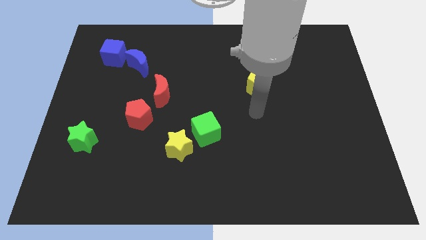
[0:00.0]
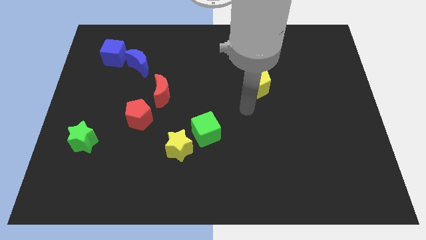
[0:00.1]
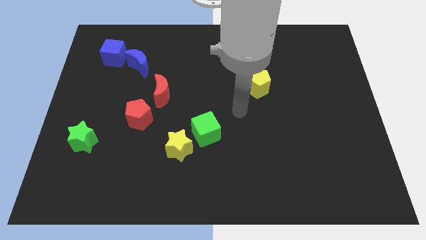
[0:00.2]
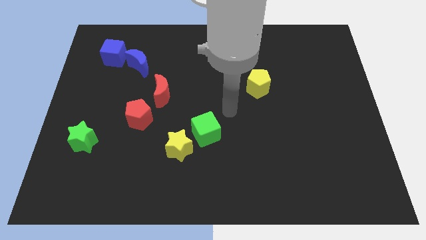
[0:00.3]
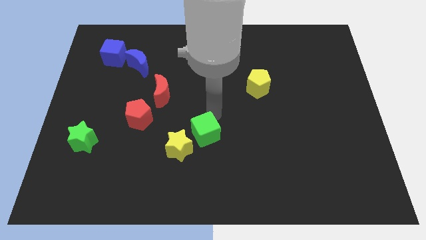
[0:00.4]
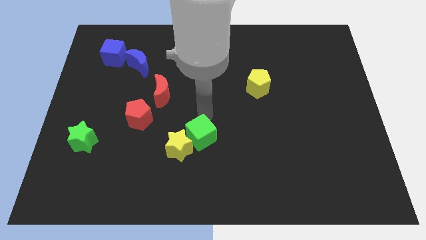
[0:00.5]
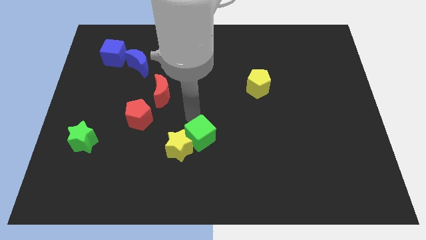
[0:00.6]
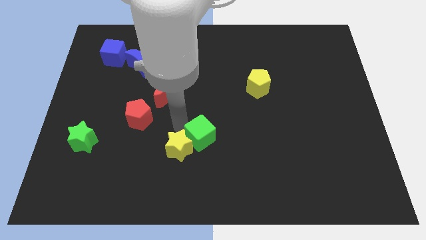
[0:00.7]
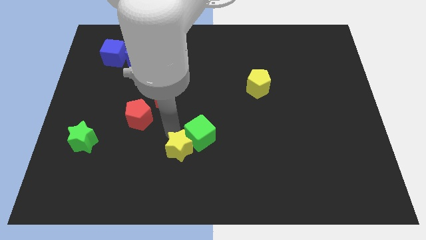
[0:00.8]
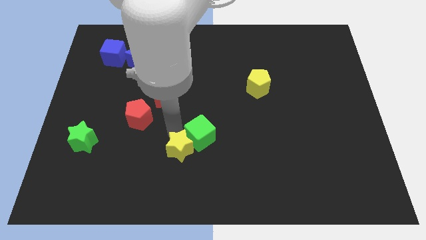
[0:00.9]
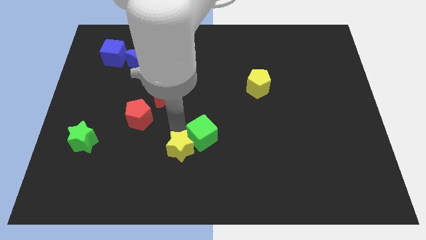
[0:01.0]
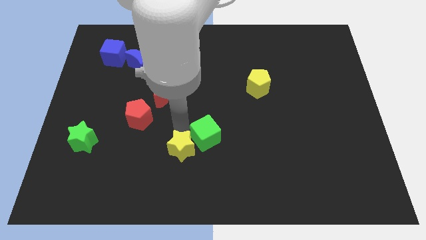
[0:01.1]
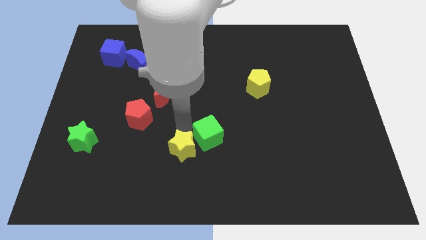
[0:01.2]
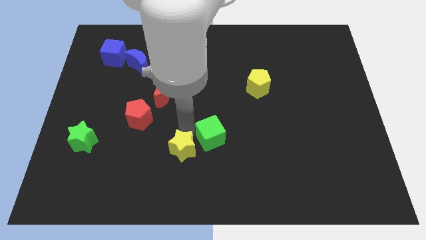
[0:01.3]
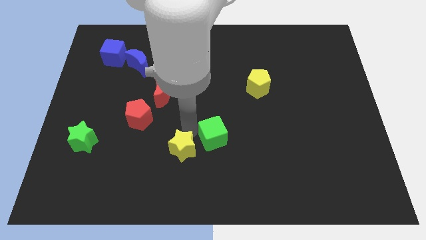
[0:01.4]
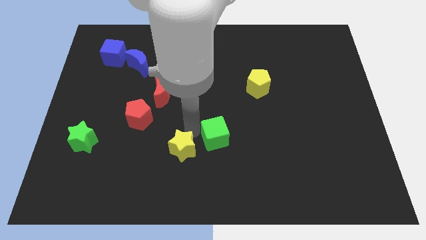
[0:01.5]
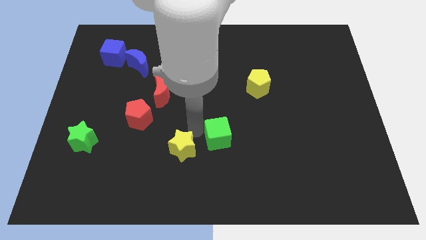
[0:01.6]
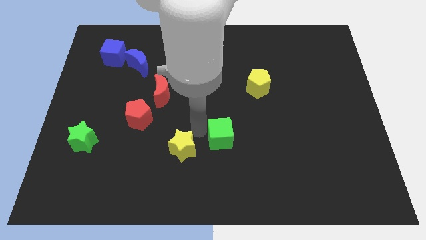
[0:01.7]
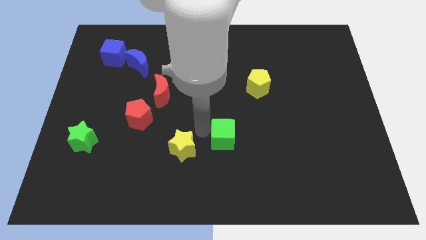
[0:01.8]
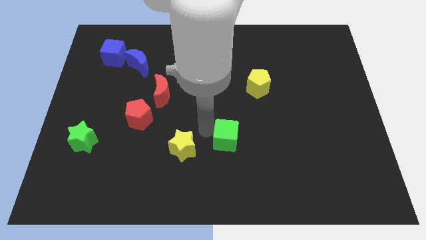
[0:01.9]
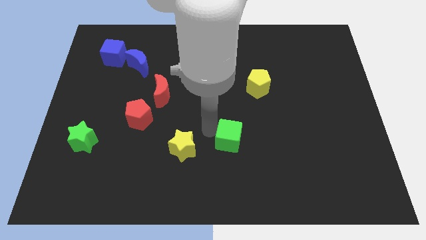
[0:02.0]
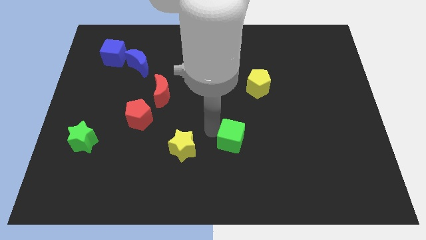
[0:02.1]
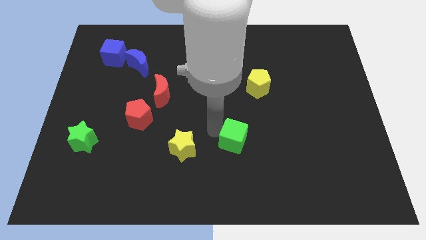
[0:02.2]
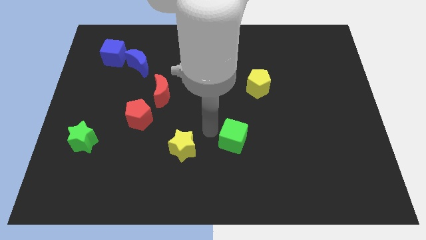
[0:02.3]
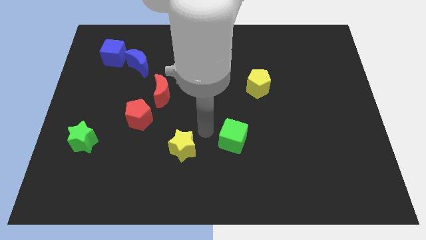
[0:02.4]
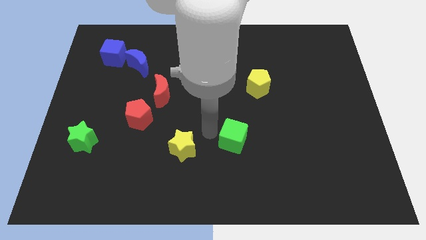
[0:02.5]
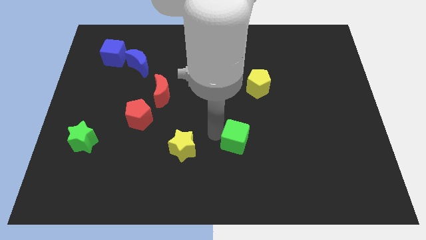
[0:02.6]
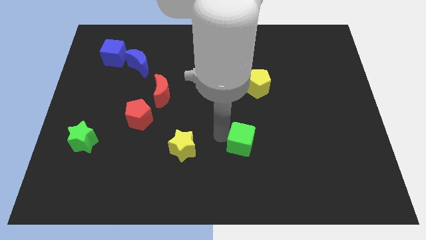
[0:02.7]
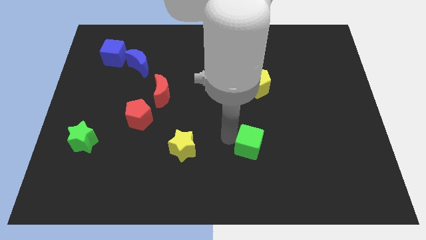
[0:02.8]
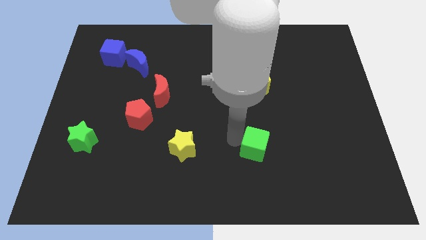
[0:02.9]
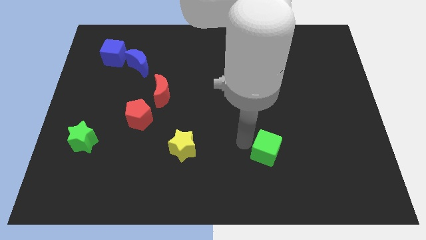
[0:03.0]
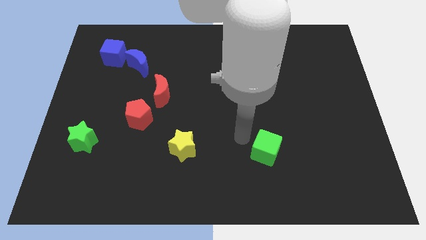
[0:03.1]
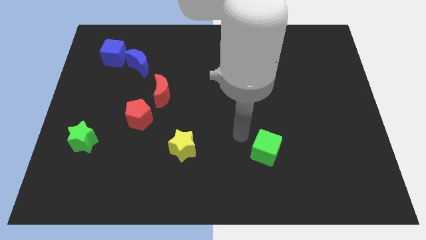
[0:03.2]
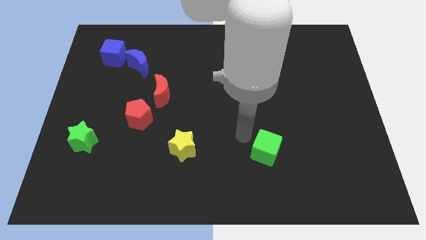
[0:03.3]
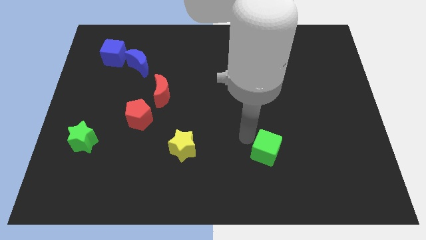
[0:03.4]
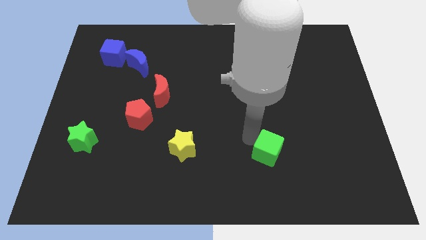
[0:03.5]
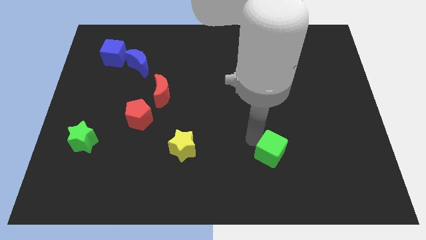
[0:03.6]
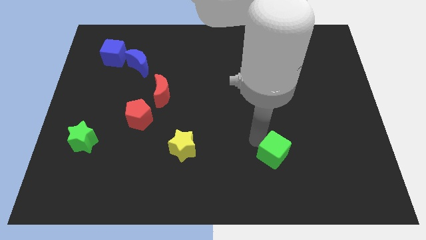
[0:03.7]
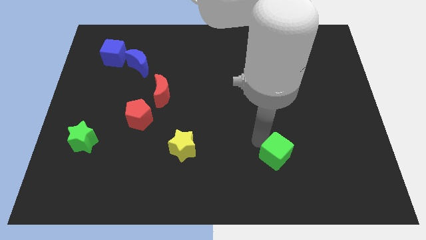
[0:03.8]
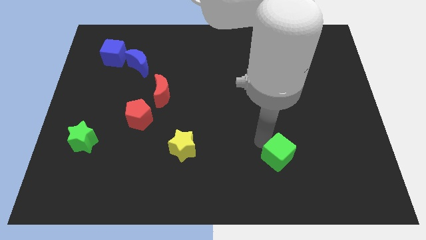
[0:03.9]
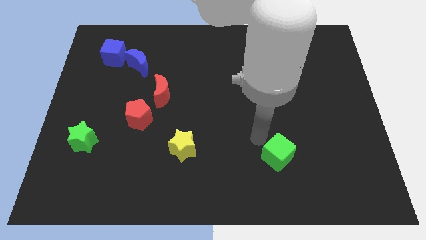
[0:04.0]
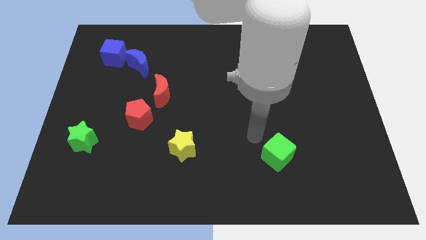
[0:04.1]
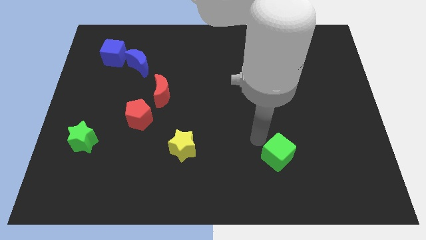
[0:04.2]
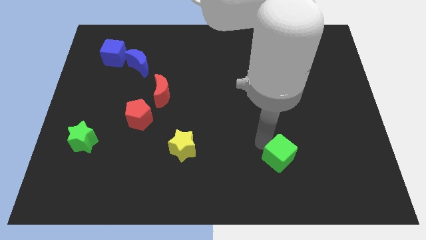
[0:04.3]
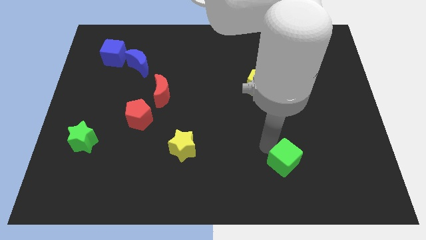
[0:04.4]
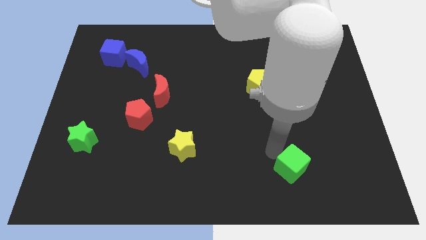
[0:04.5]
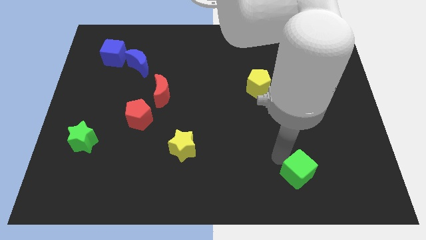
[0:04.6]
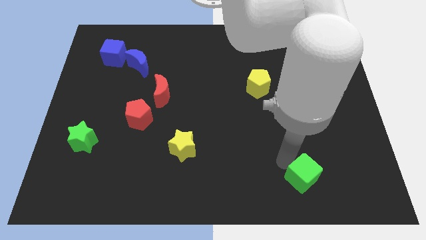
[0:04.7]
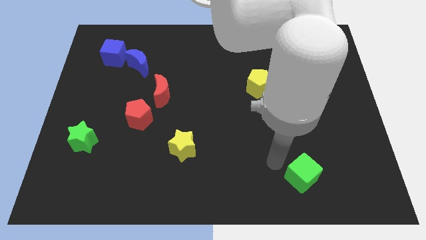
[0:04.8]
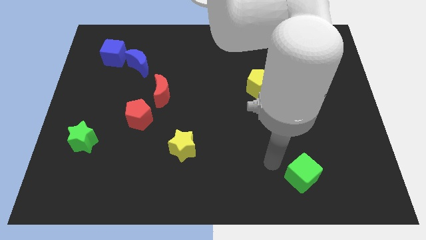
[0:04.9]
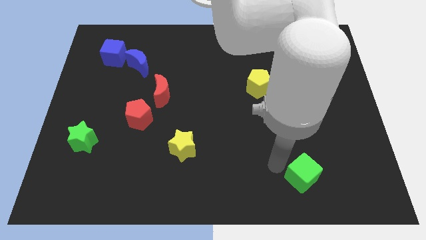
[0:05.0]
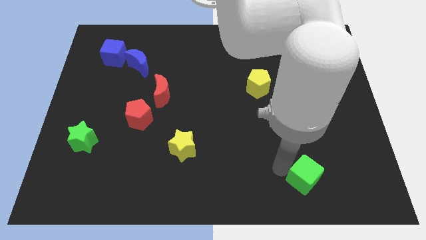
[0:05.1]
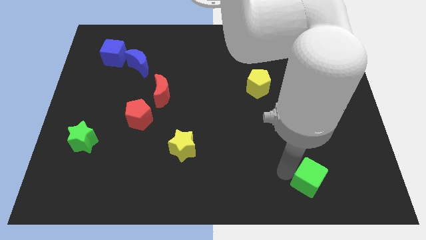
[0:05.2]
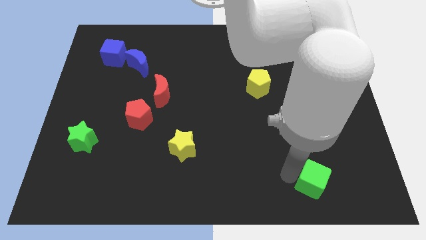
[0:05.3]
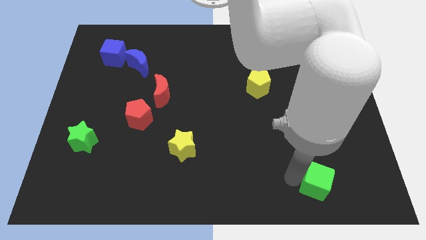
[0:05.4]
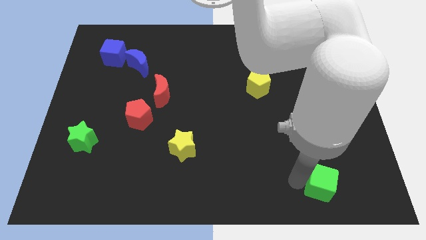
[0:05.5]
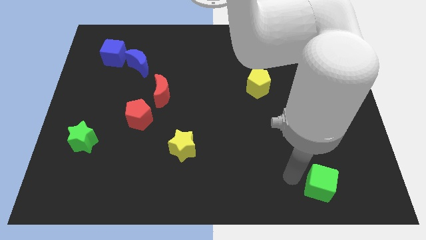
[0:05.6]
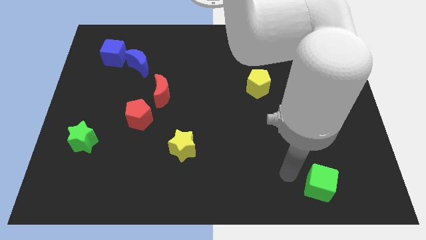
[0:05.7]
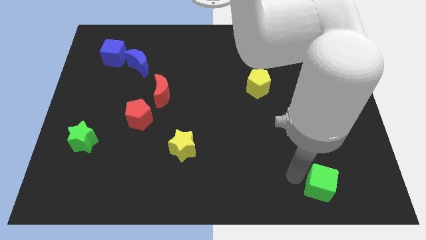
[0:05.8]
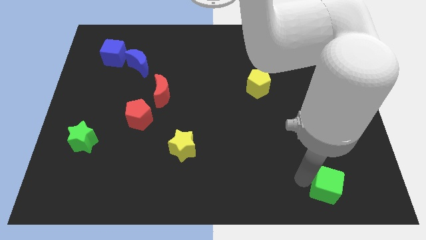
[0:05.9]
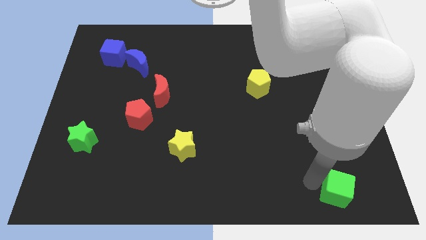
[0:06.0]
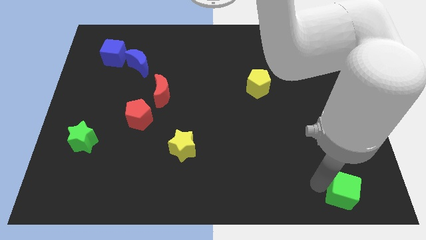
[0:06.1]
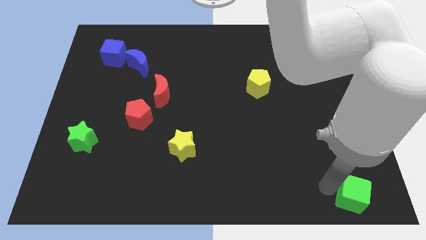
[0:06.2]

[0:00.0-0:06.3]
move the green cube to the lower right corner
